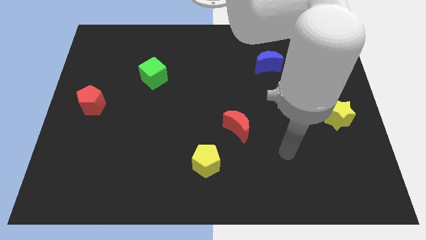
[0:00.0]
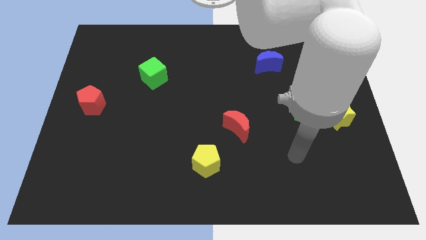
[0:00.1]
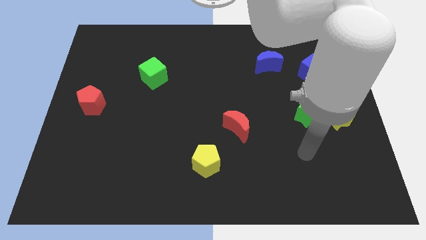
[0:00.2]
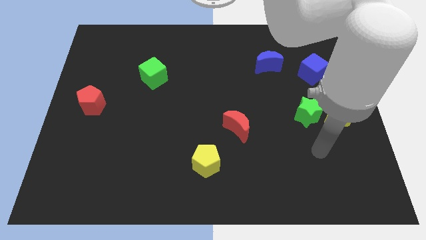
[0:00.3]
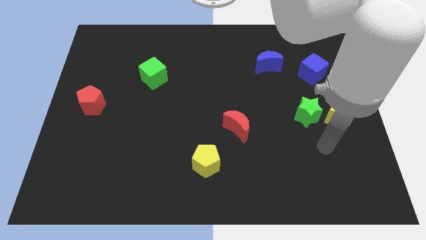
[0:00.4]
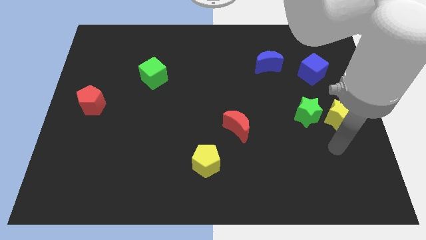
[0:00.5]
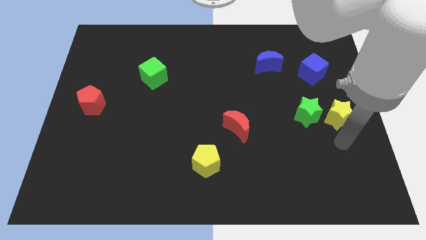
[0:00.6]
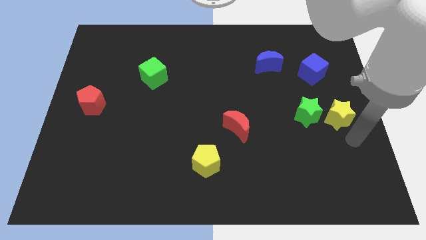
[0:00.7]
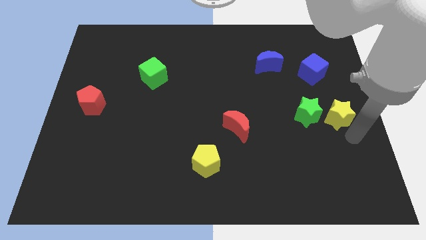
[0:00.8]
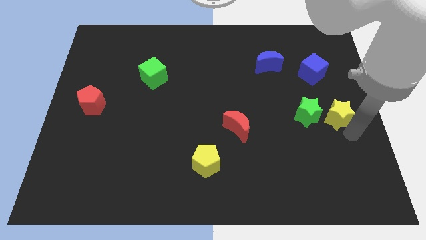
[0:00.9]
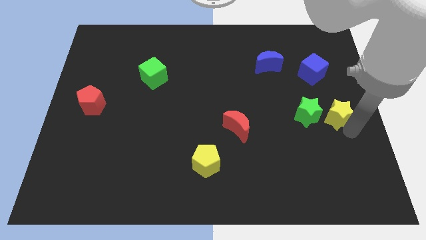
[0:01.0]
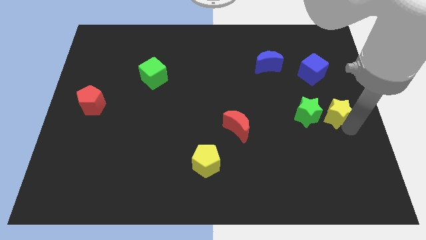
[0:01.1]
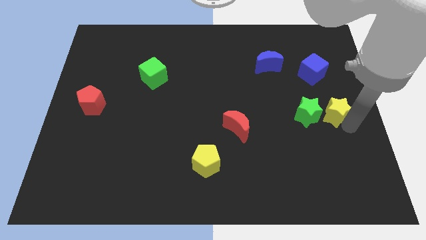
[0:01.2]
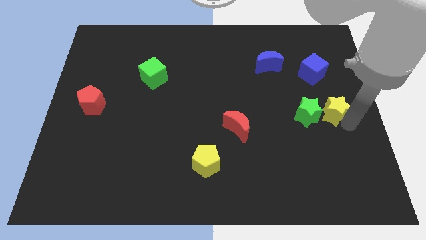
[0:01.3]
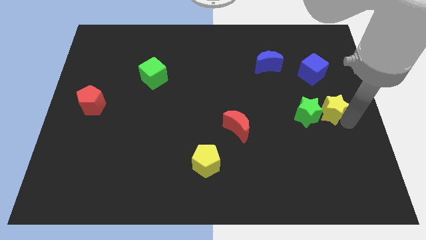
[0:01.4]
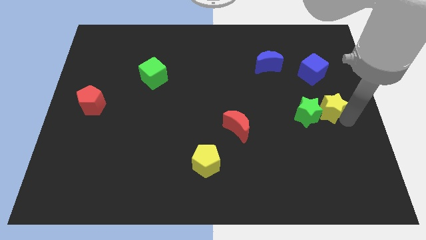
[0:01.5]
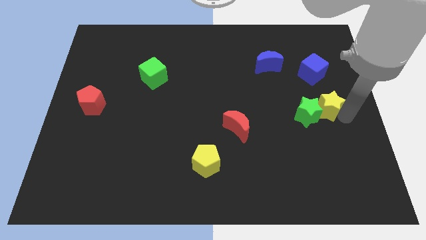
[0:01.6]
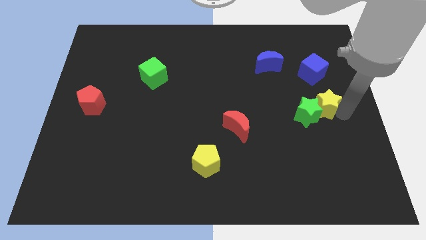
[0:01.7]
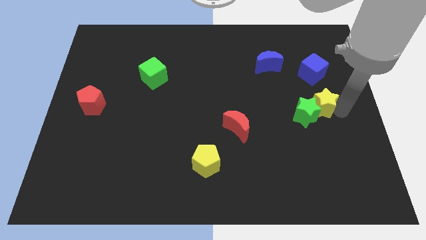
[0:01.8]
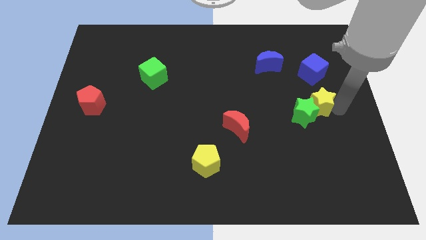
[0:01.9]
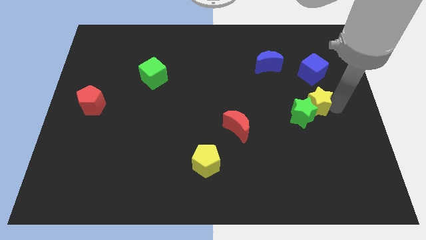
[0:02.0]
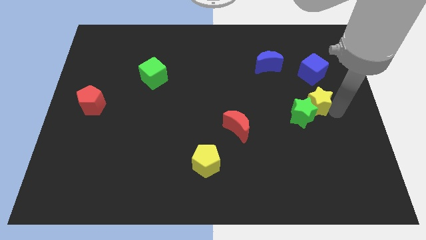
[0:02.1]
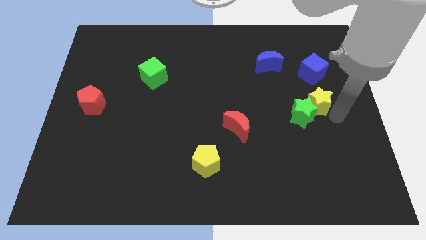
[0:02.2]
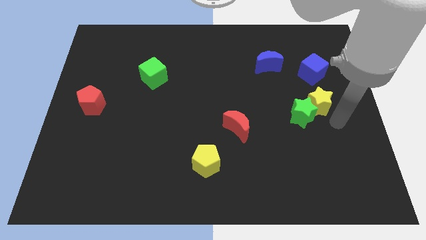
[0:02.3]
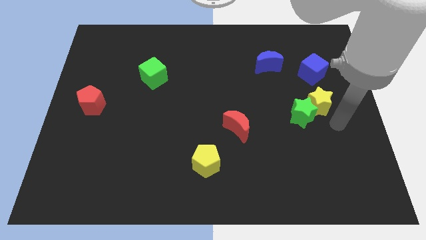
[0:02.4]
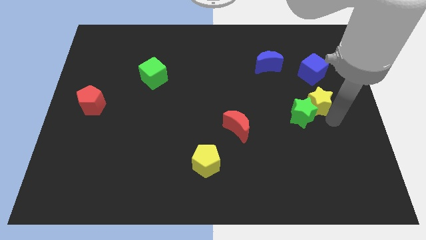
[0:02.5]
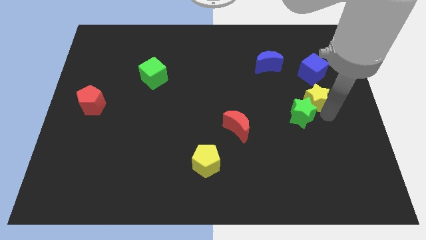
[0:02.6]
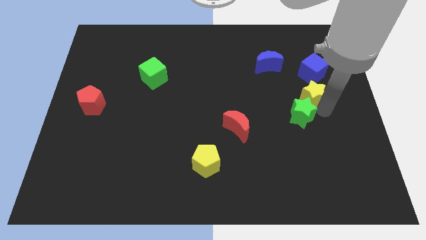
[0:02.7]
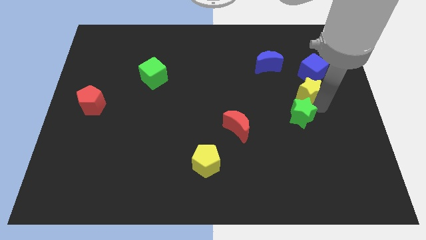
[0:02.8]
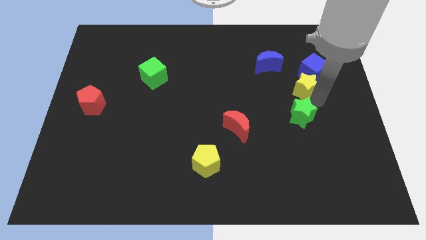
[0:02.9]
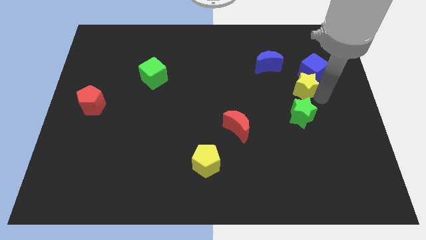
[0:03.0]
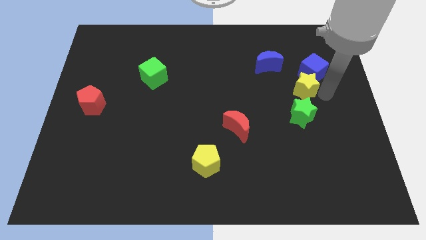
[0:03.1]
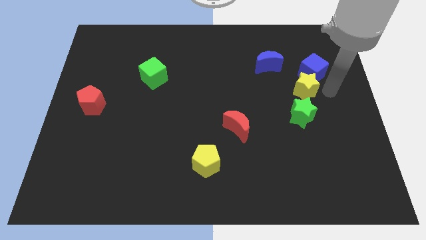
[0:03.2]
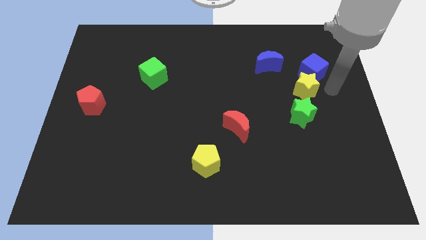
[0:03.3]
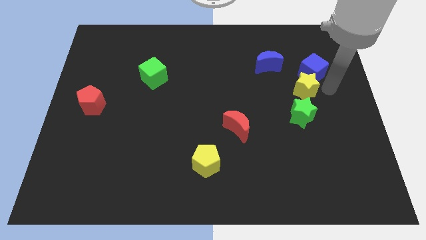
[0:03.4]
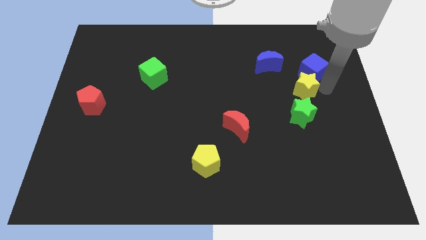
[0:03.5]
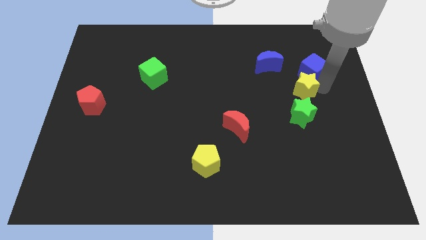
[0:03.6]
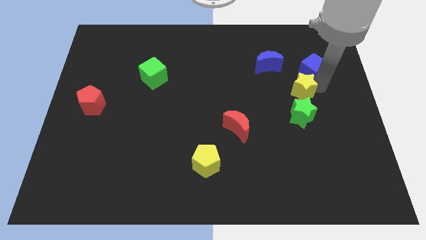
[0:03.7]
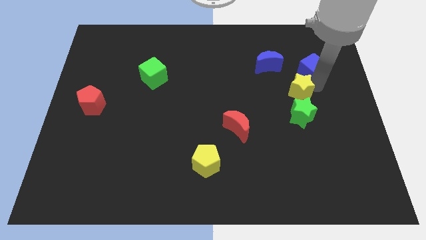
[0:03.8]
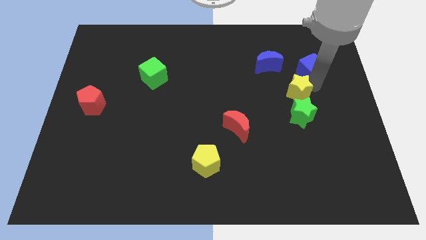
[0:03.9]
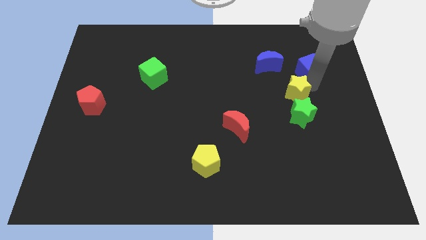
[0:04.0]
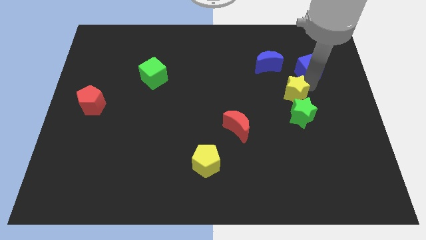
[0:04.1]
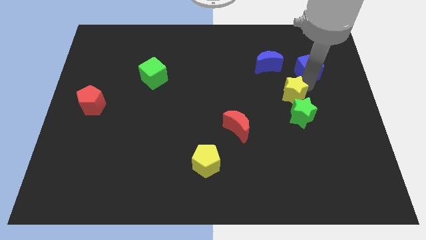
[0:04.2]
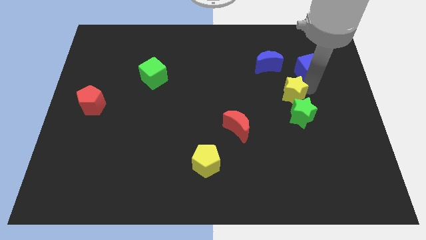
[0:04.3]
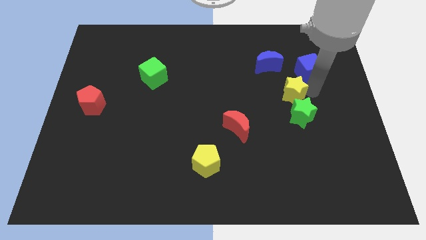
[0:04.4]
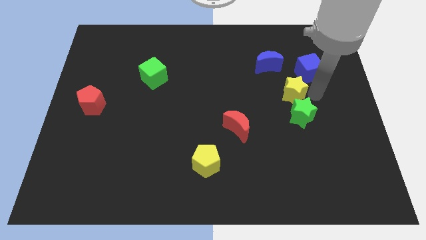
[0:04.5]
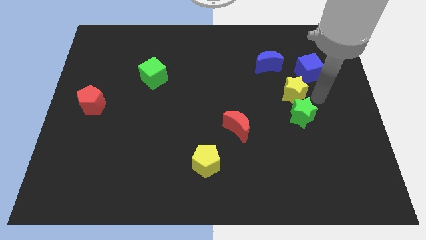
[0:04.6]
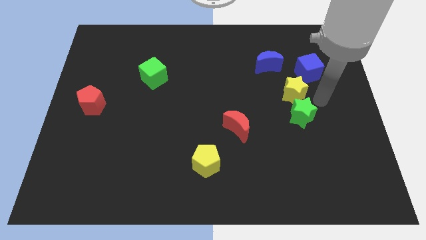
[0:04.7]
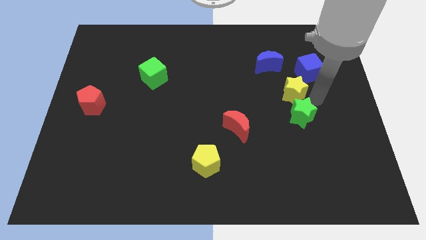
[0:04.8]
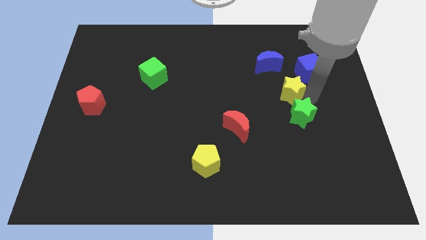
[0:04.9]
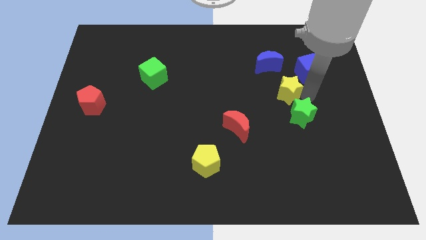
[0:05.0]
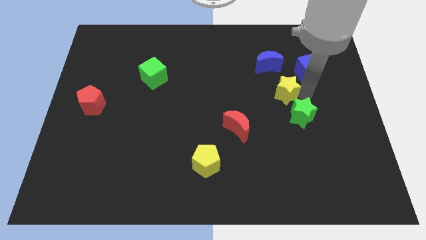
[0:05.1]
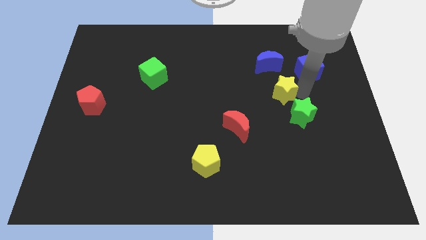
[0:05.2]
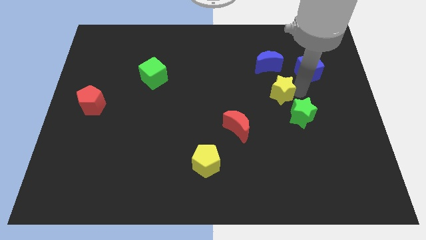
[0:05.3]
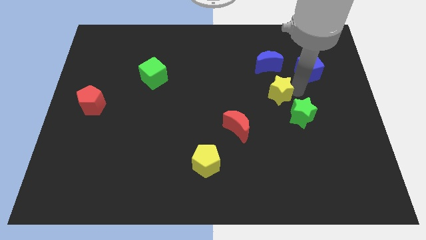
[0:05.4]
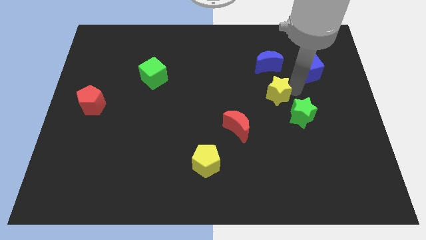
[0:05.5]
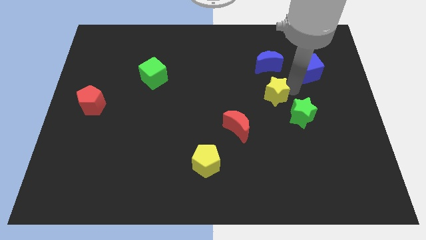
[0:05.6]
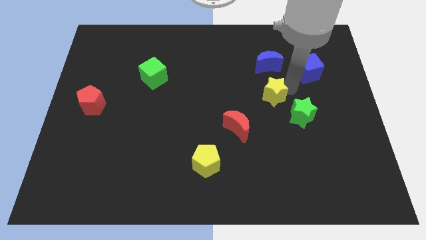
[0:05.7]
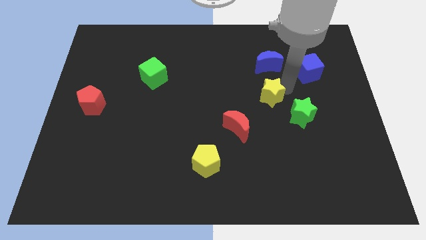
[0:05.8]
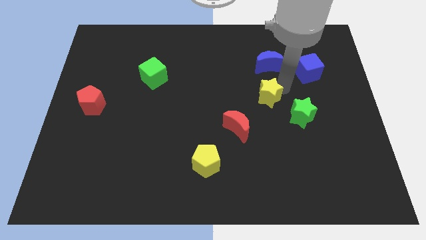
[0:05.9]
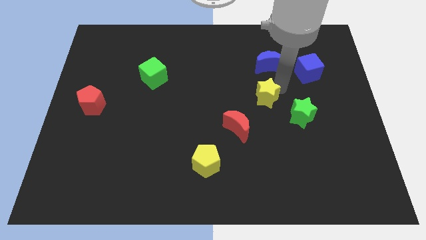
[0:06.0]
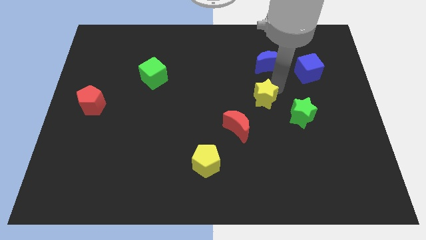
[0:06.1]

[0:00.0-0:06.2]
slide the yellow star to the middle
